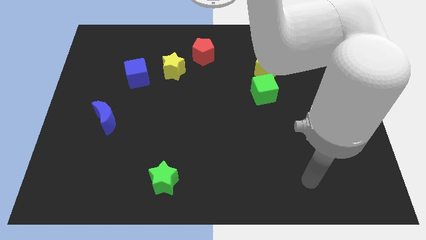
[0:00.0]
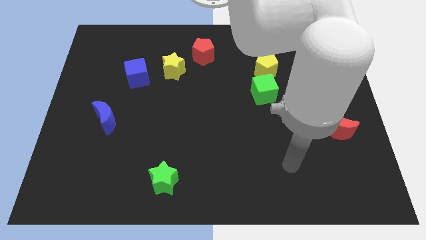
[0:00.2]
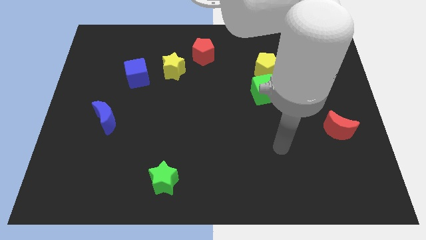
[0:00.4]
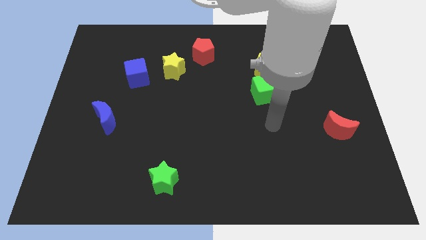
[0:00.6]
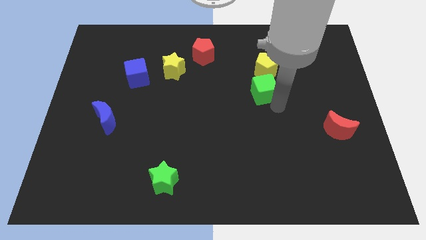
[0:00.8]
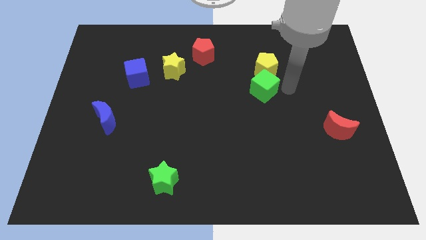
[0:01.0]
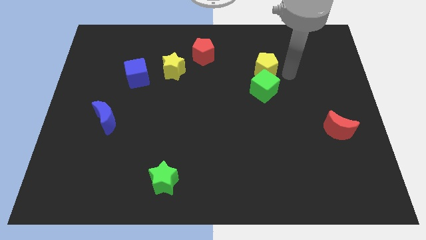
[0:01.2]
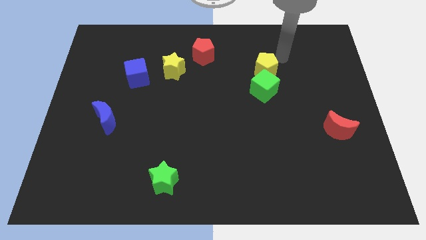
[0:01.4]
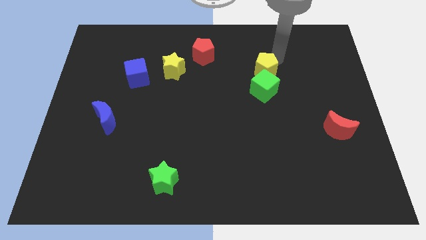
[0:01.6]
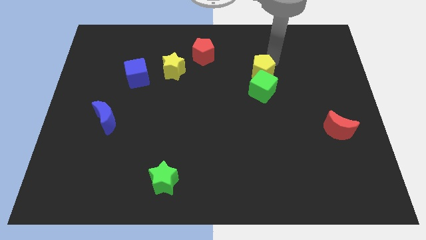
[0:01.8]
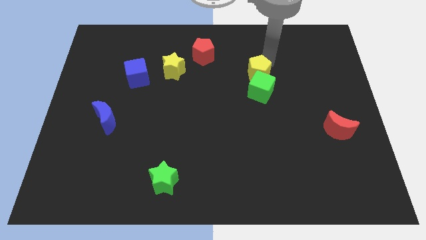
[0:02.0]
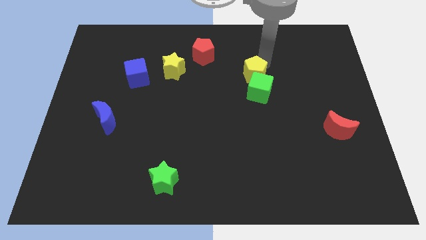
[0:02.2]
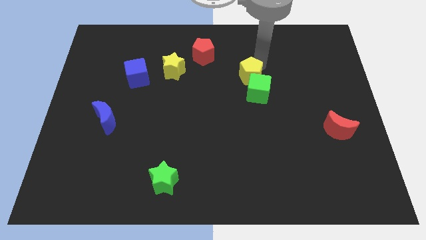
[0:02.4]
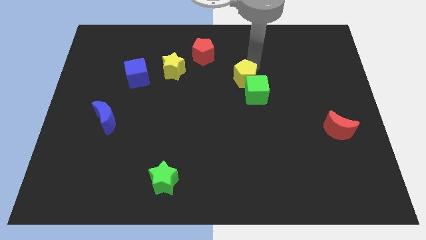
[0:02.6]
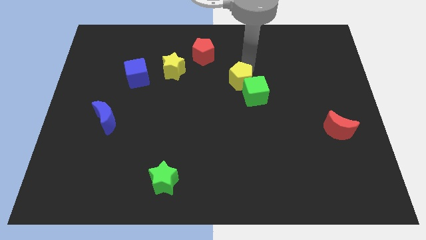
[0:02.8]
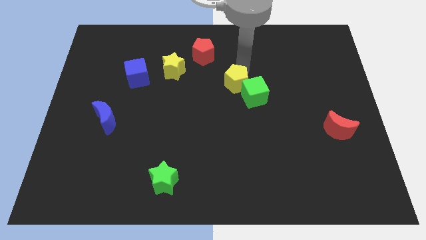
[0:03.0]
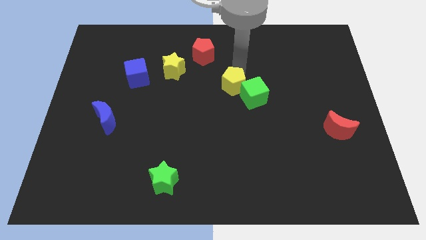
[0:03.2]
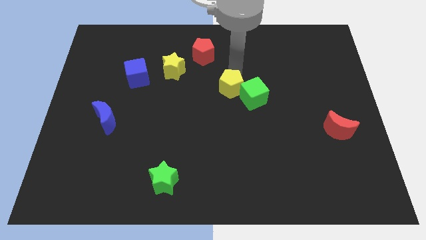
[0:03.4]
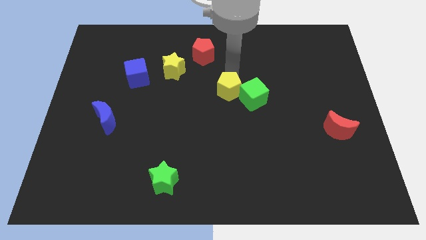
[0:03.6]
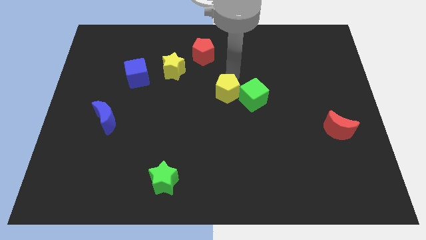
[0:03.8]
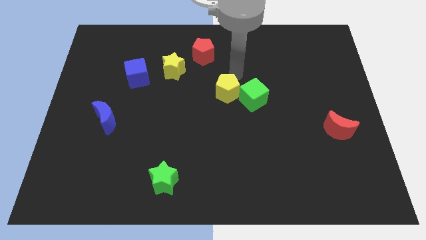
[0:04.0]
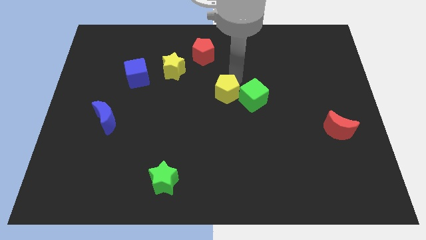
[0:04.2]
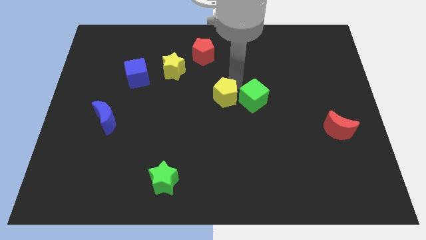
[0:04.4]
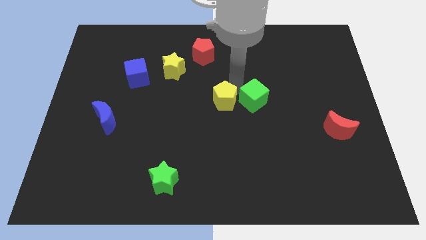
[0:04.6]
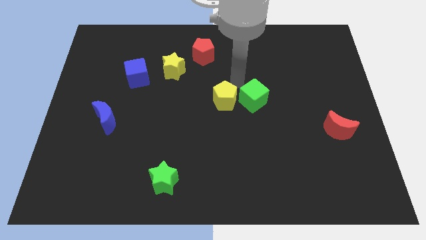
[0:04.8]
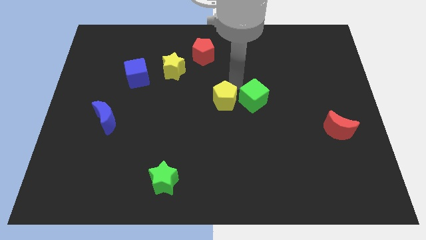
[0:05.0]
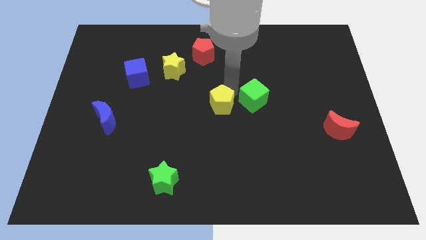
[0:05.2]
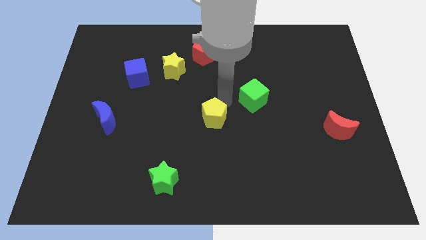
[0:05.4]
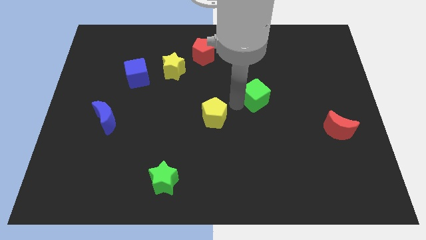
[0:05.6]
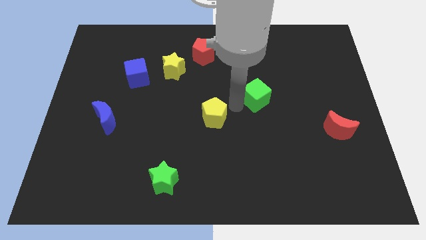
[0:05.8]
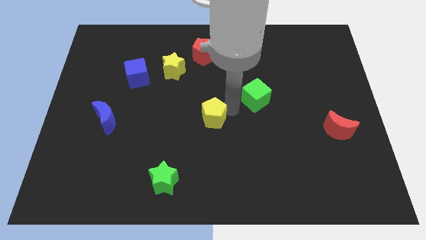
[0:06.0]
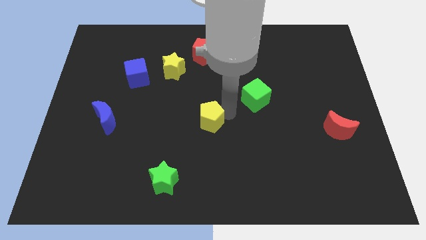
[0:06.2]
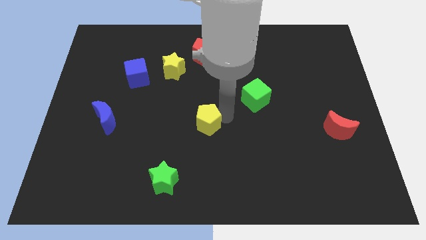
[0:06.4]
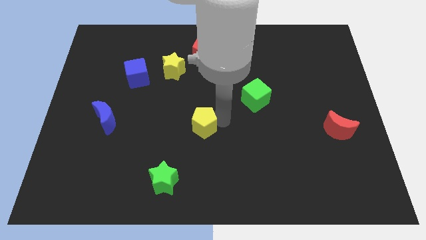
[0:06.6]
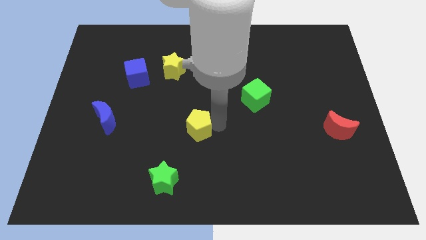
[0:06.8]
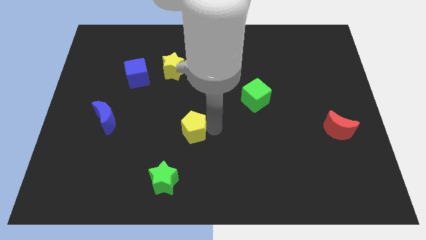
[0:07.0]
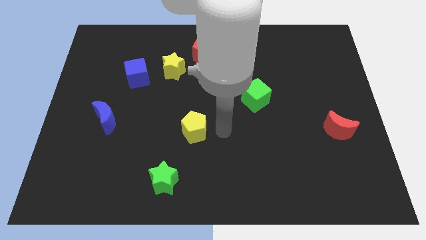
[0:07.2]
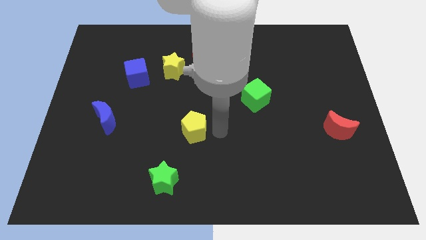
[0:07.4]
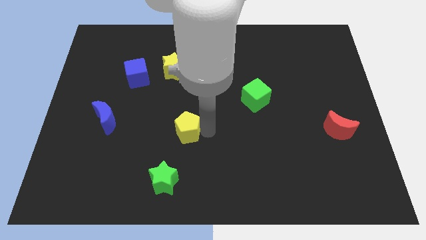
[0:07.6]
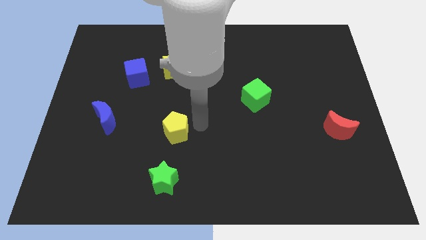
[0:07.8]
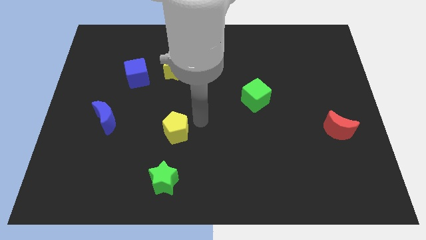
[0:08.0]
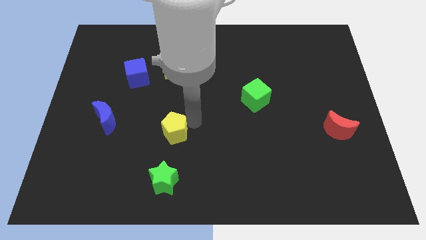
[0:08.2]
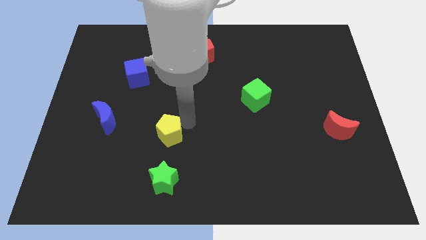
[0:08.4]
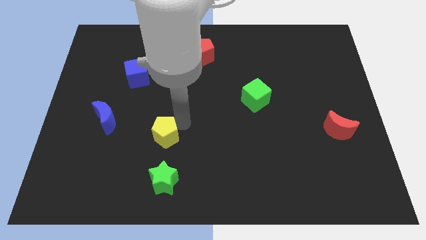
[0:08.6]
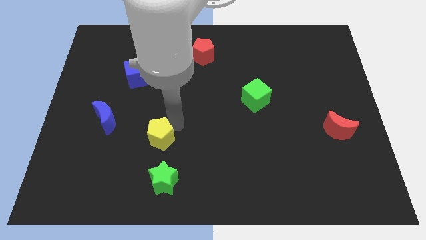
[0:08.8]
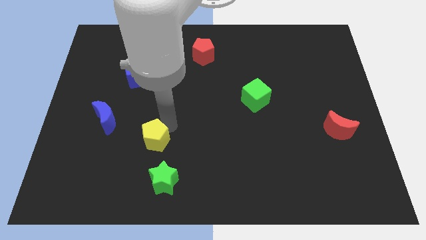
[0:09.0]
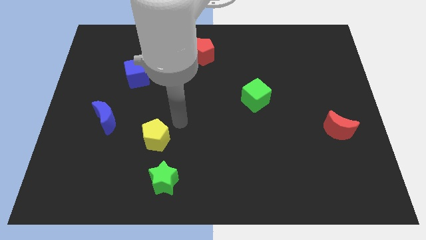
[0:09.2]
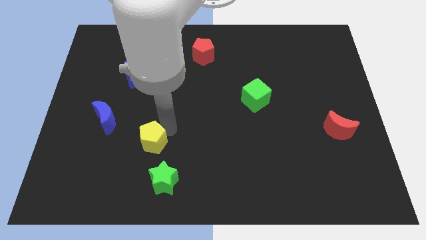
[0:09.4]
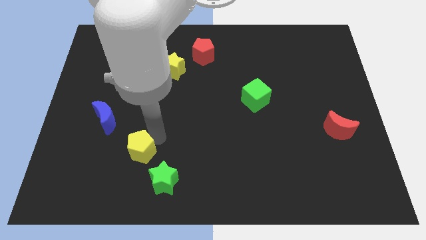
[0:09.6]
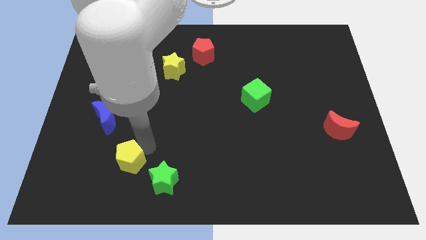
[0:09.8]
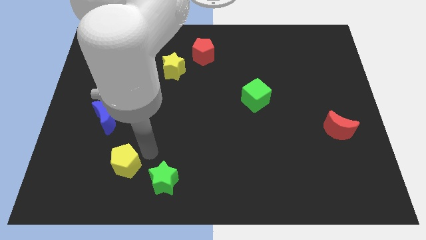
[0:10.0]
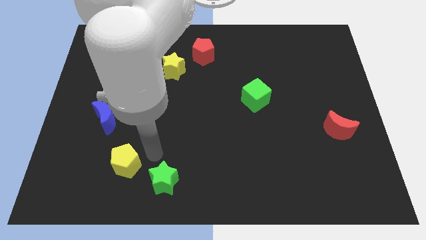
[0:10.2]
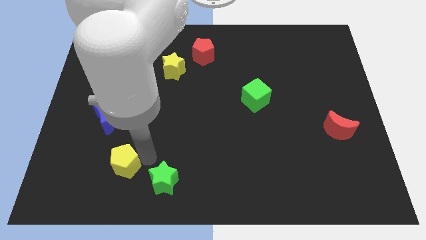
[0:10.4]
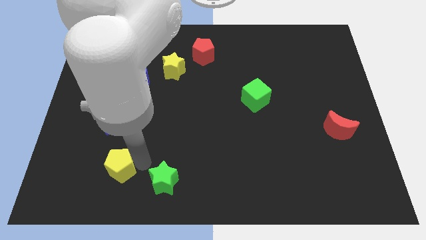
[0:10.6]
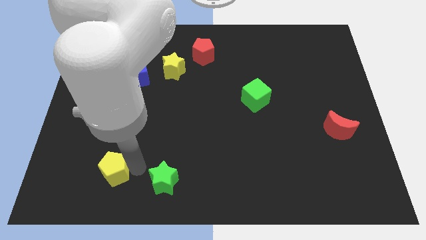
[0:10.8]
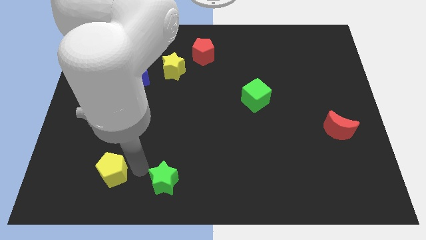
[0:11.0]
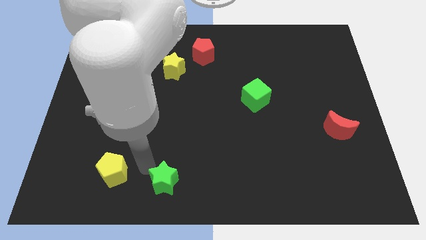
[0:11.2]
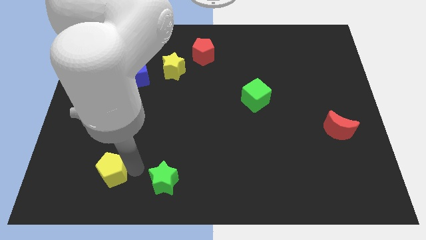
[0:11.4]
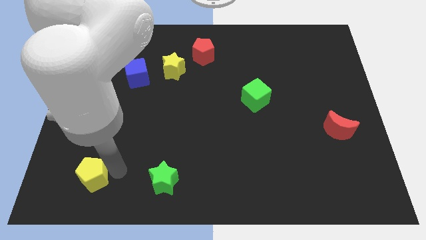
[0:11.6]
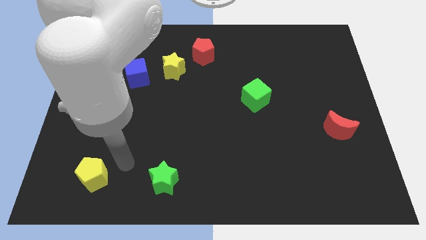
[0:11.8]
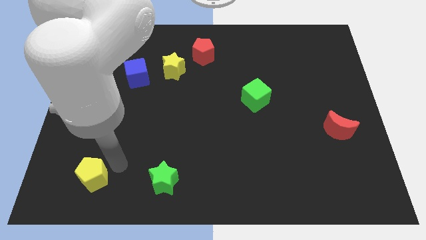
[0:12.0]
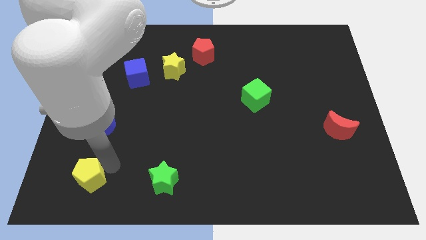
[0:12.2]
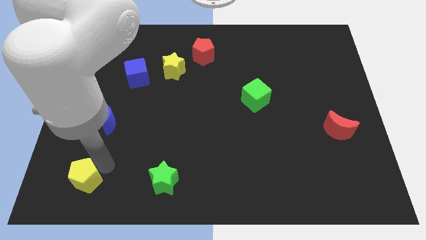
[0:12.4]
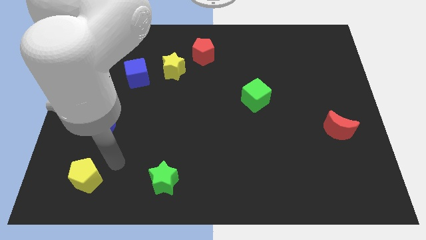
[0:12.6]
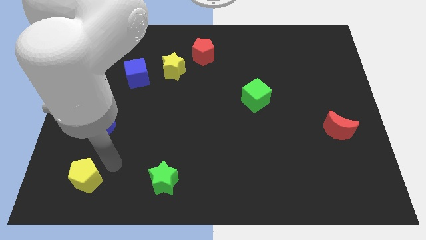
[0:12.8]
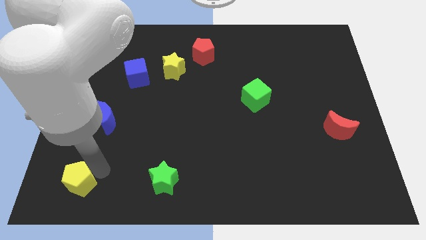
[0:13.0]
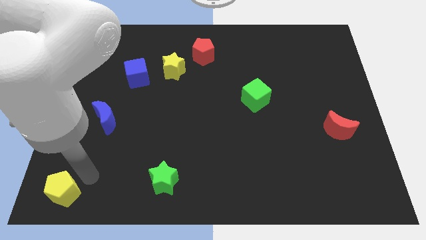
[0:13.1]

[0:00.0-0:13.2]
slide the yellow pentagon to the bottom left

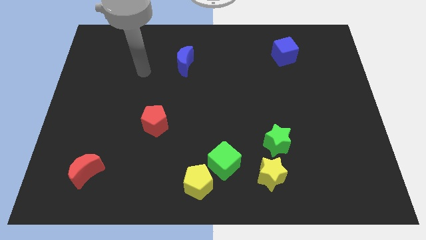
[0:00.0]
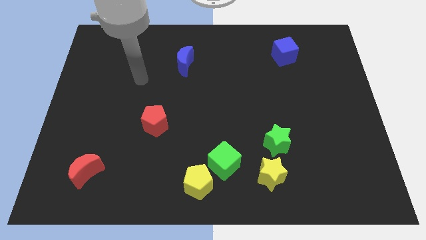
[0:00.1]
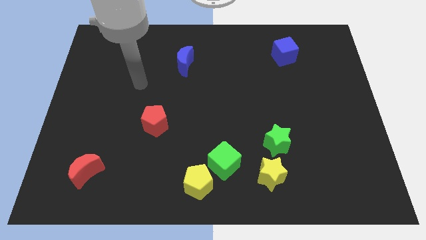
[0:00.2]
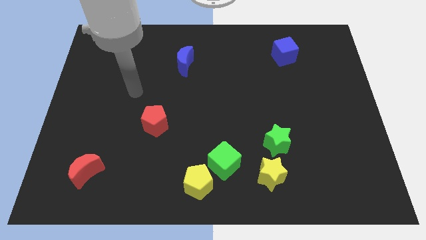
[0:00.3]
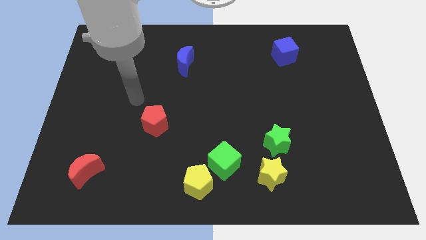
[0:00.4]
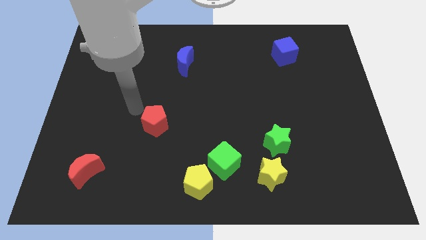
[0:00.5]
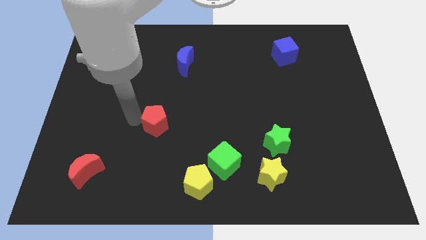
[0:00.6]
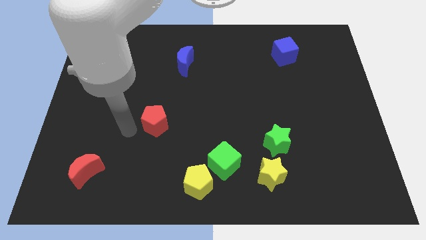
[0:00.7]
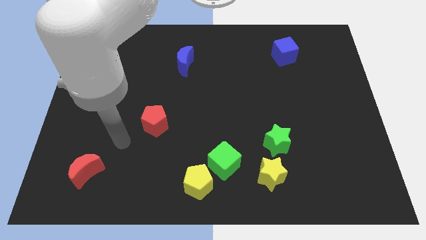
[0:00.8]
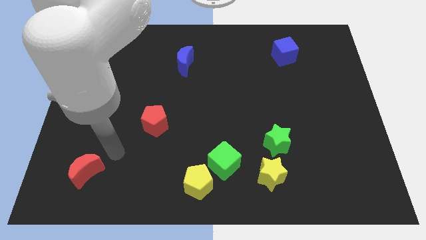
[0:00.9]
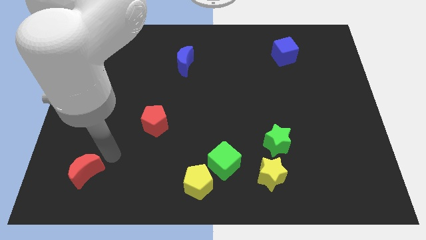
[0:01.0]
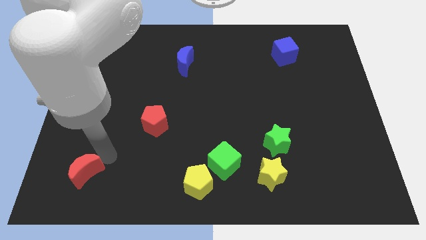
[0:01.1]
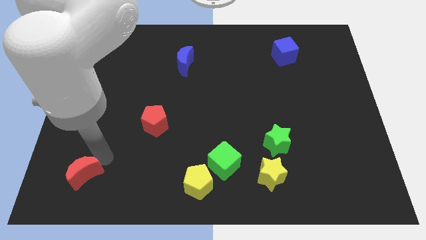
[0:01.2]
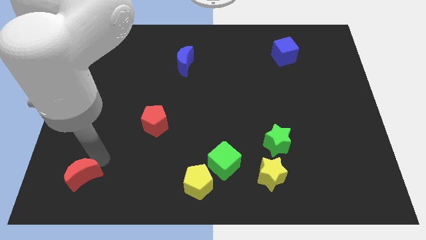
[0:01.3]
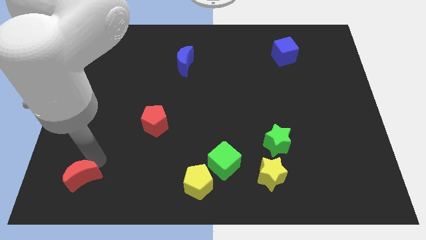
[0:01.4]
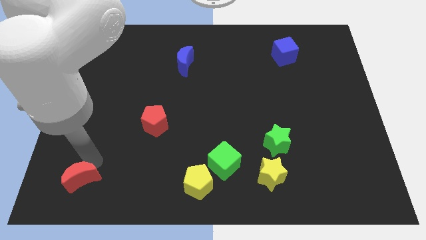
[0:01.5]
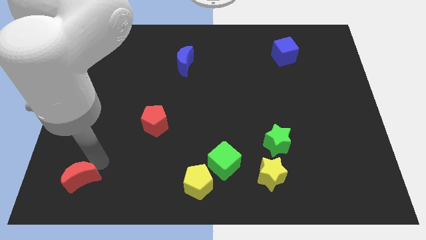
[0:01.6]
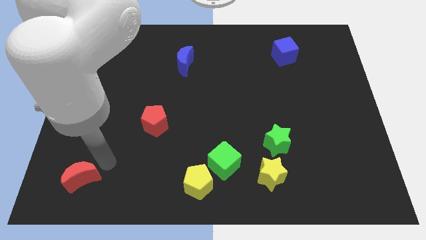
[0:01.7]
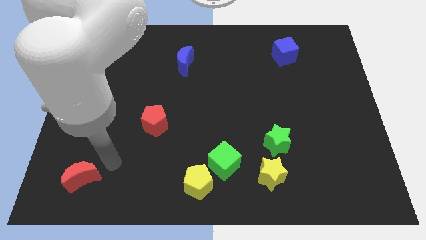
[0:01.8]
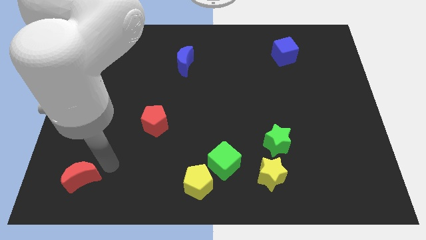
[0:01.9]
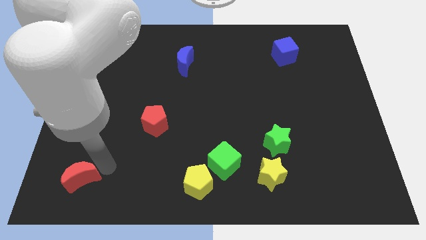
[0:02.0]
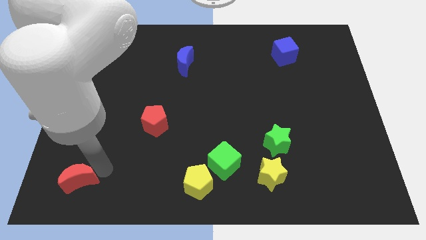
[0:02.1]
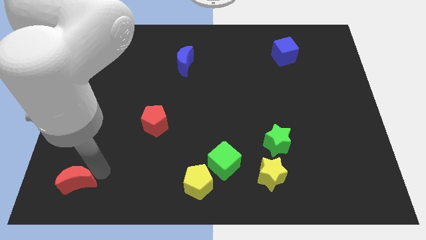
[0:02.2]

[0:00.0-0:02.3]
slide the red moon to the bottom left corner
